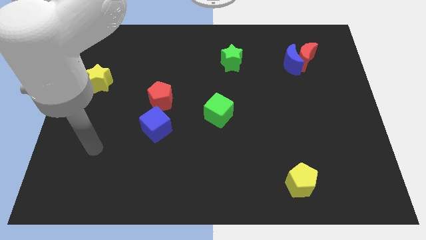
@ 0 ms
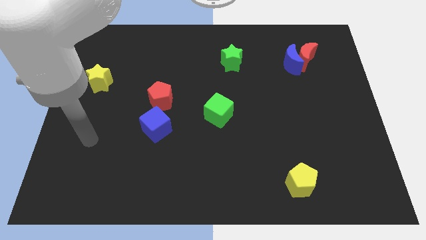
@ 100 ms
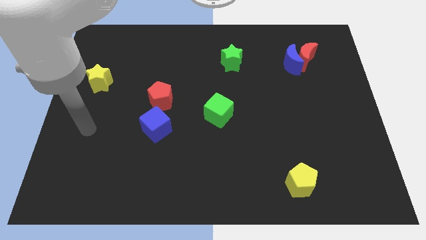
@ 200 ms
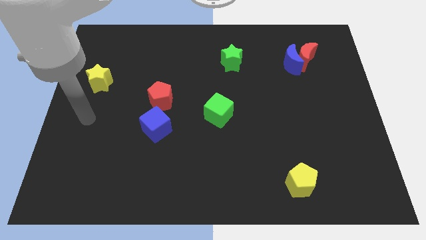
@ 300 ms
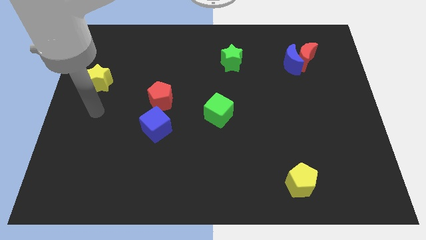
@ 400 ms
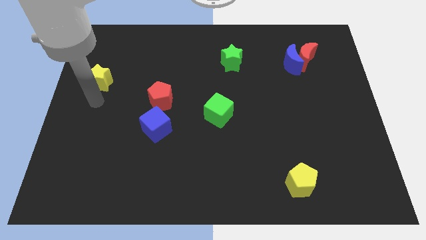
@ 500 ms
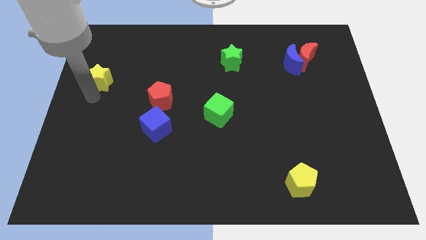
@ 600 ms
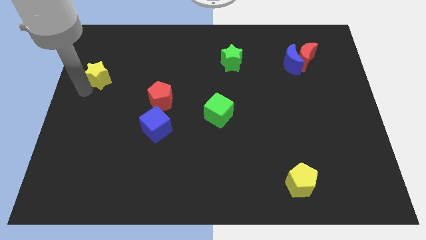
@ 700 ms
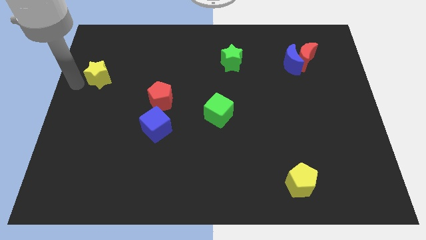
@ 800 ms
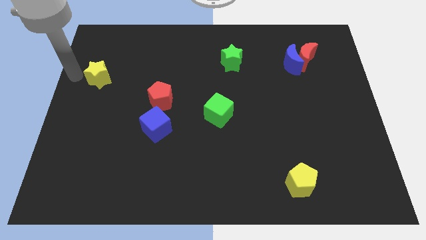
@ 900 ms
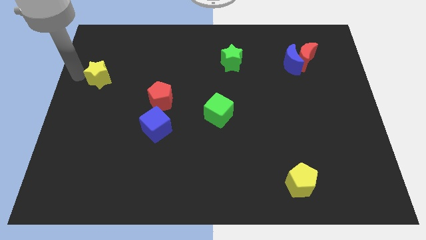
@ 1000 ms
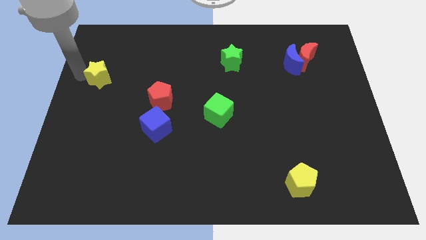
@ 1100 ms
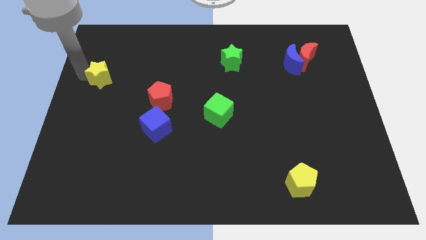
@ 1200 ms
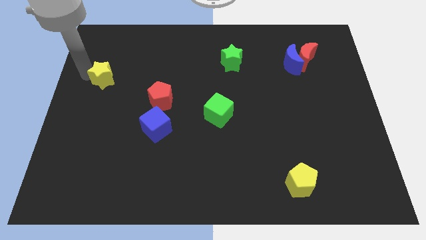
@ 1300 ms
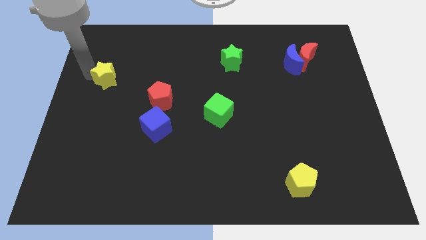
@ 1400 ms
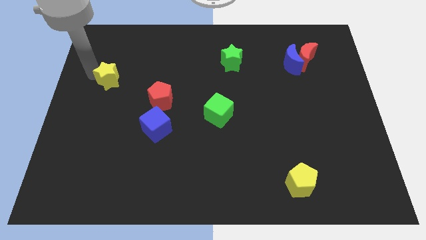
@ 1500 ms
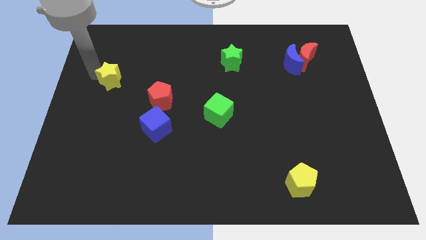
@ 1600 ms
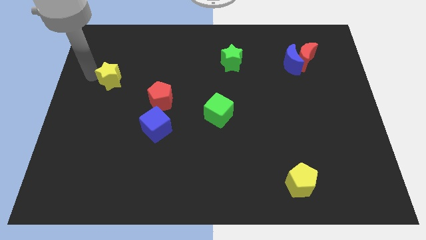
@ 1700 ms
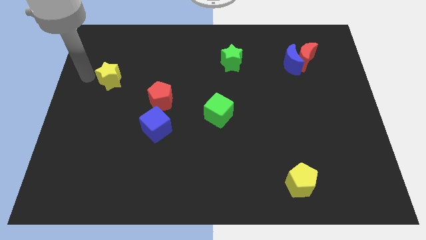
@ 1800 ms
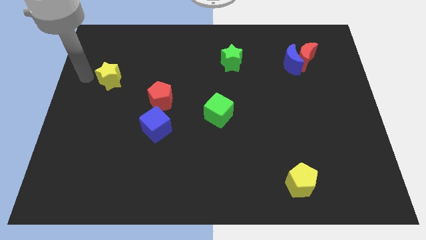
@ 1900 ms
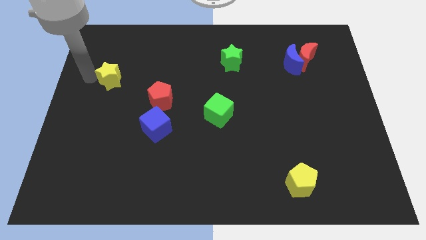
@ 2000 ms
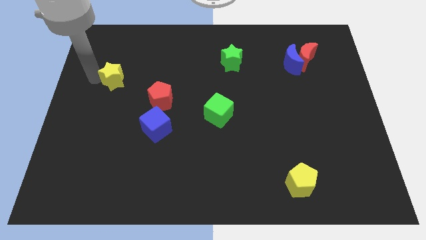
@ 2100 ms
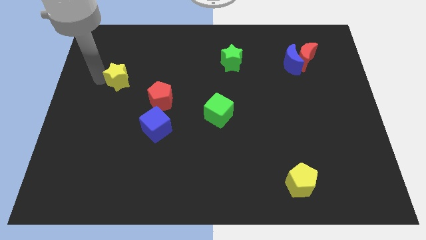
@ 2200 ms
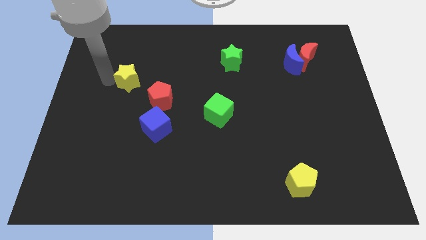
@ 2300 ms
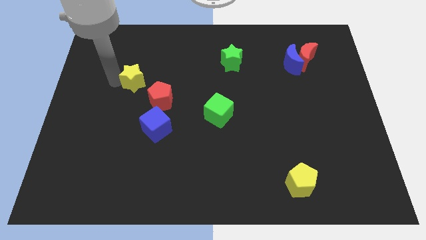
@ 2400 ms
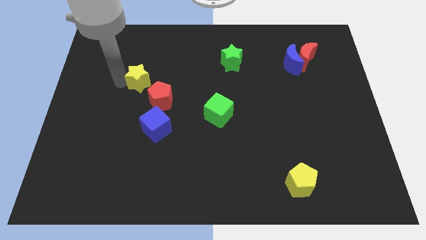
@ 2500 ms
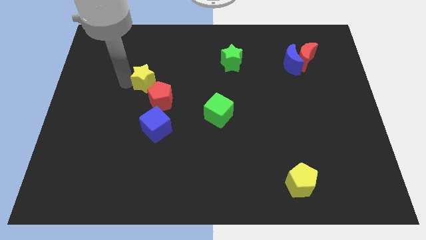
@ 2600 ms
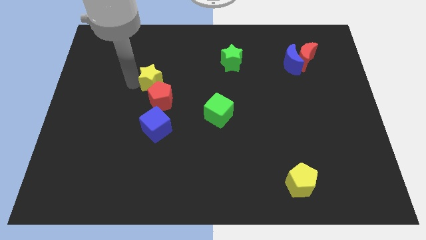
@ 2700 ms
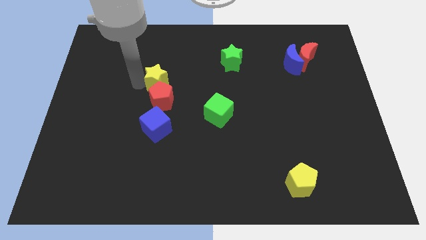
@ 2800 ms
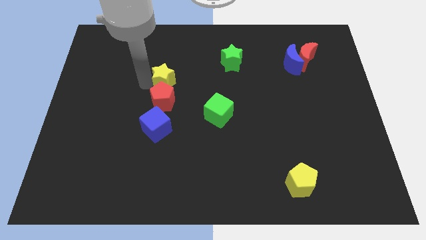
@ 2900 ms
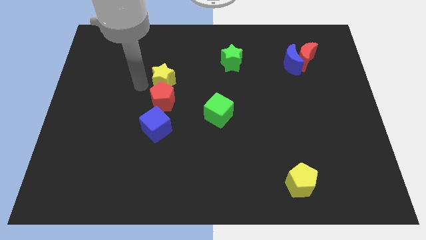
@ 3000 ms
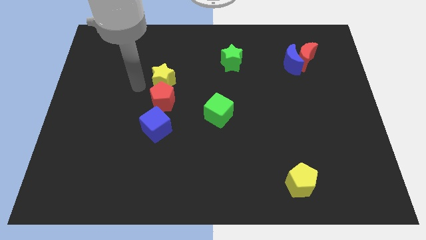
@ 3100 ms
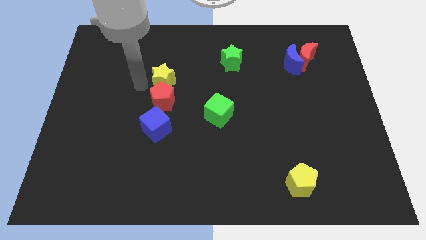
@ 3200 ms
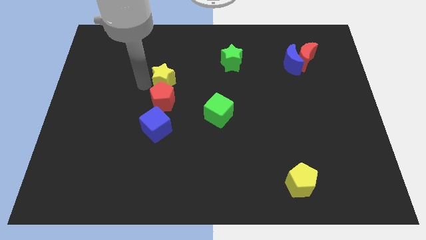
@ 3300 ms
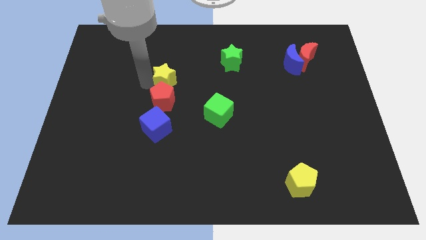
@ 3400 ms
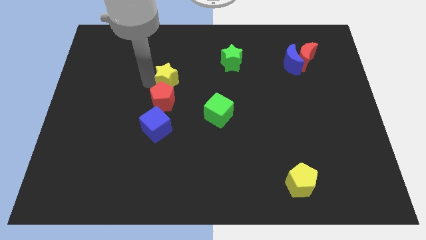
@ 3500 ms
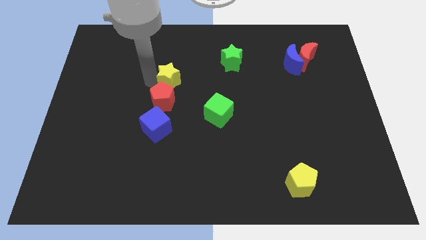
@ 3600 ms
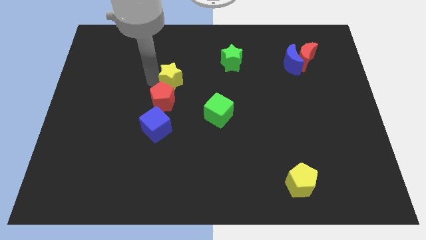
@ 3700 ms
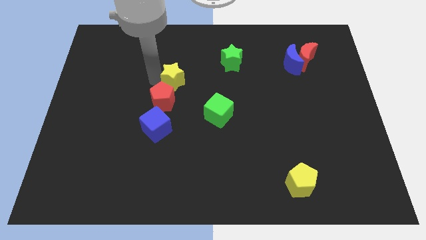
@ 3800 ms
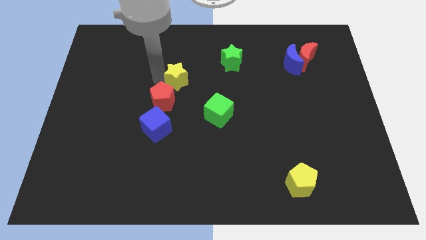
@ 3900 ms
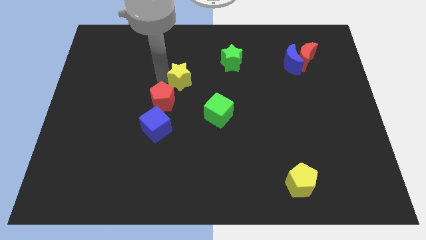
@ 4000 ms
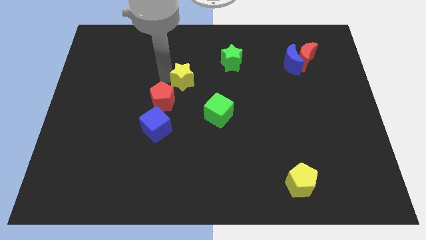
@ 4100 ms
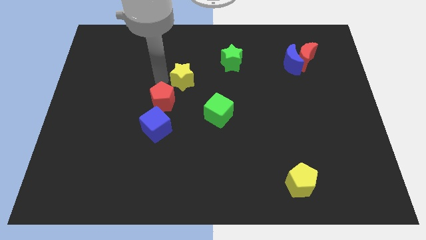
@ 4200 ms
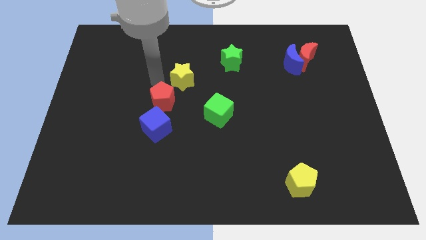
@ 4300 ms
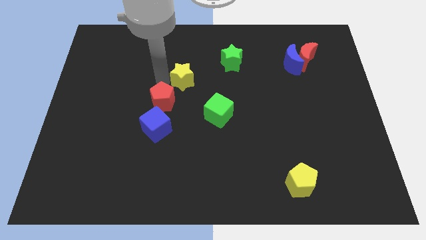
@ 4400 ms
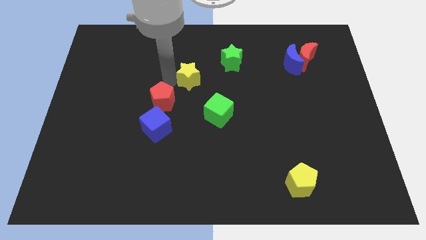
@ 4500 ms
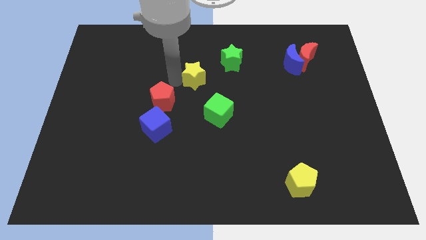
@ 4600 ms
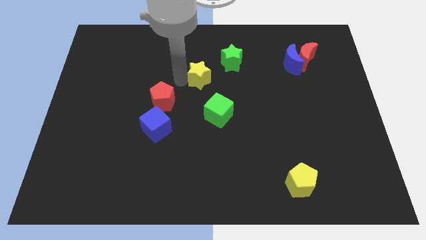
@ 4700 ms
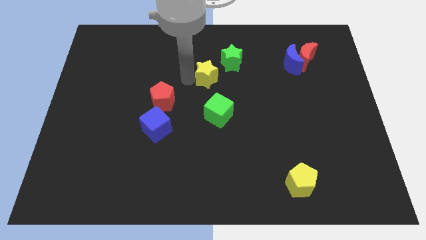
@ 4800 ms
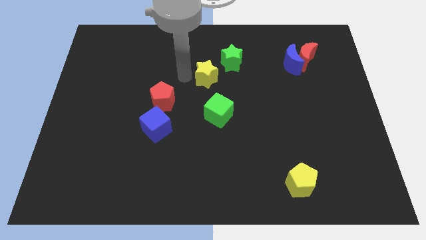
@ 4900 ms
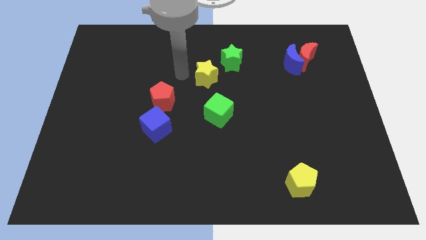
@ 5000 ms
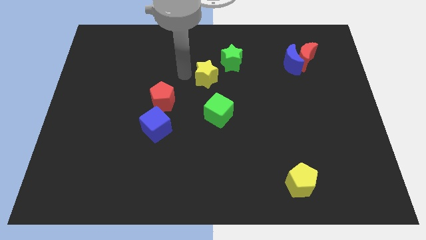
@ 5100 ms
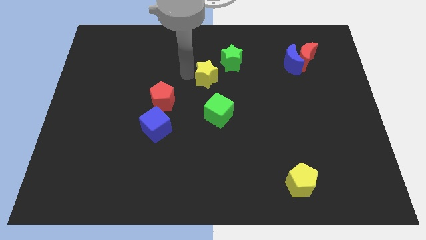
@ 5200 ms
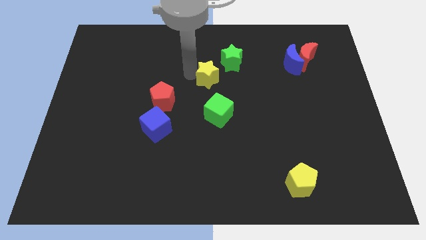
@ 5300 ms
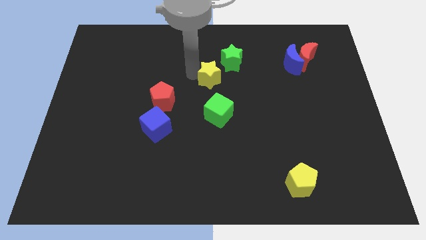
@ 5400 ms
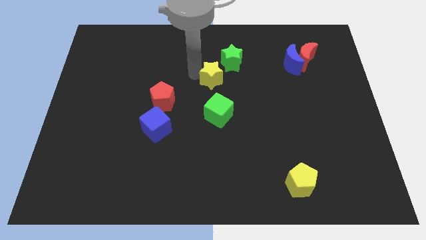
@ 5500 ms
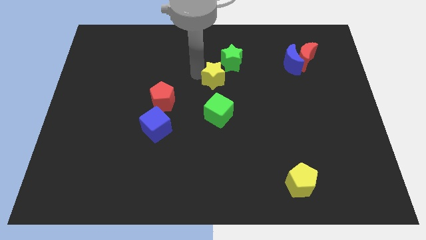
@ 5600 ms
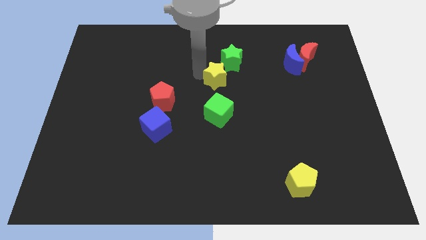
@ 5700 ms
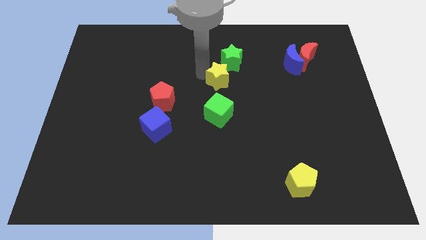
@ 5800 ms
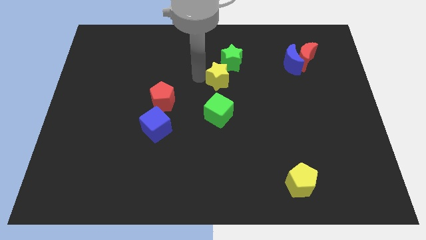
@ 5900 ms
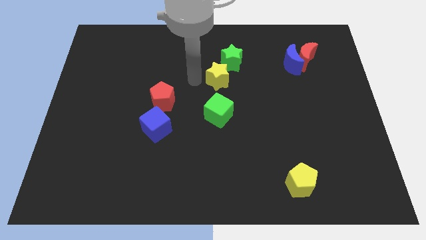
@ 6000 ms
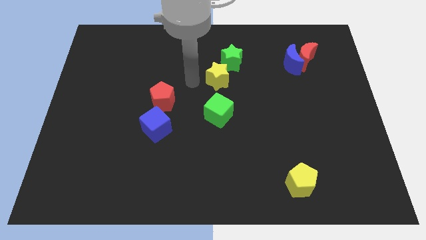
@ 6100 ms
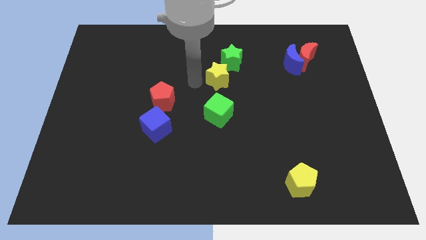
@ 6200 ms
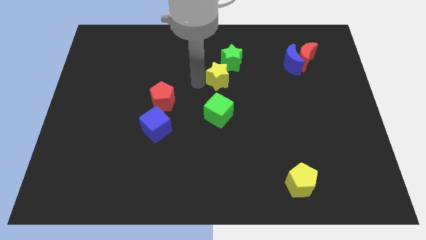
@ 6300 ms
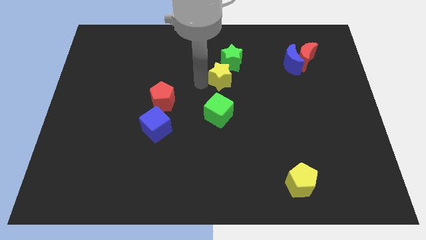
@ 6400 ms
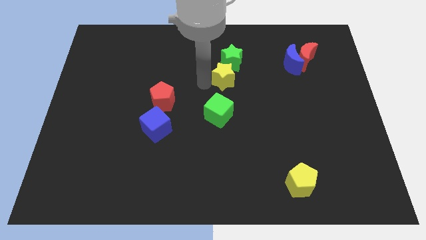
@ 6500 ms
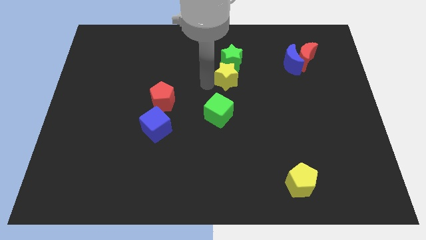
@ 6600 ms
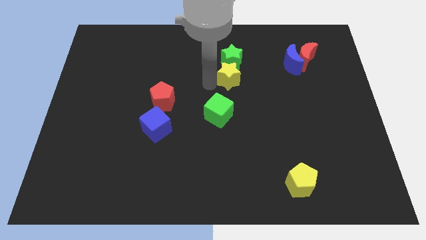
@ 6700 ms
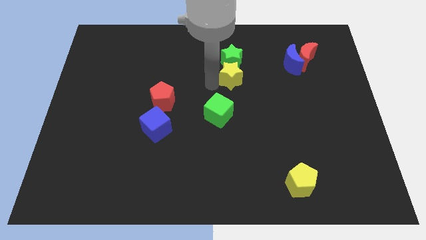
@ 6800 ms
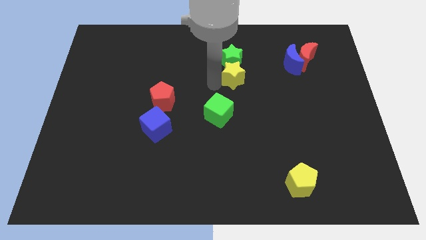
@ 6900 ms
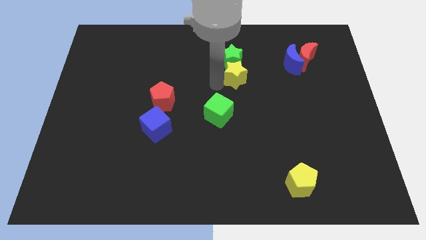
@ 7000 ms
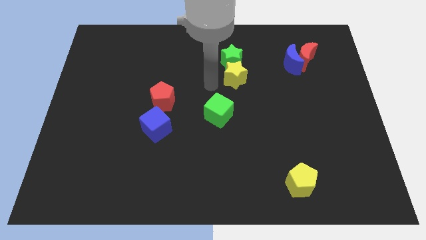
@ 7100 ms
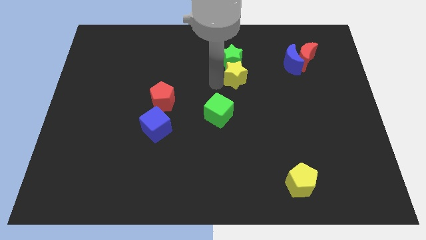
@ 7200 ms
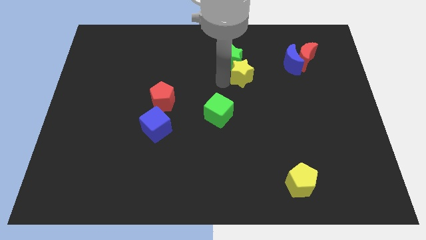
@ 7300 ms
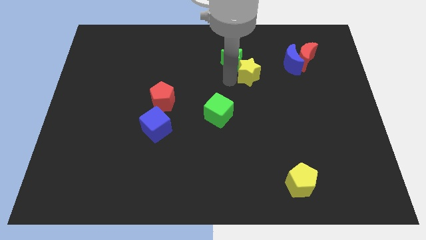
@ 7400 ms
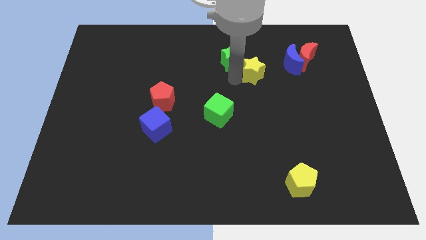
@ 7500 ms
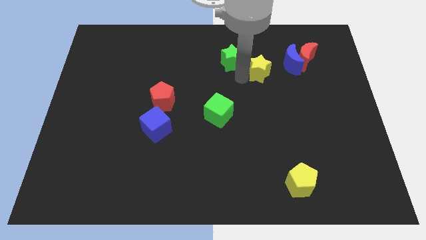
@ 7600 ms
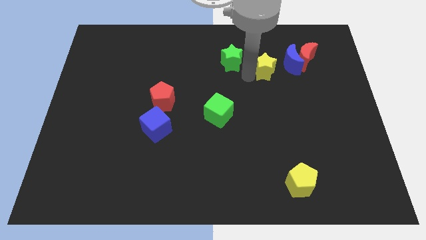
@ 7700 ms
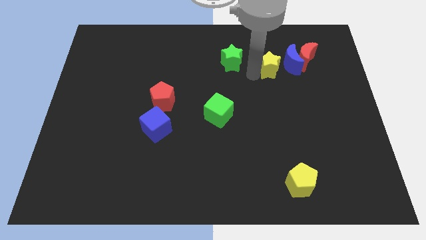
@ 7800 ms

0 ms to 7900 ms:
slide the yellow star next to the blue moon
